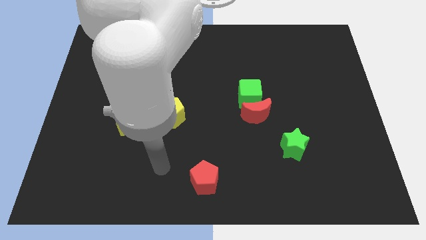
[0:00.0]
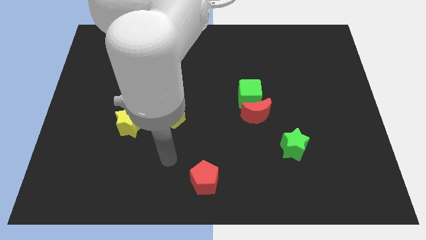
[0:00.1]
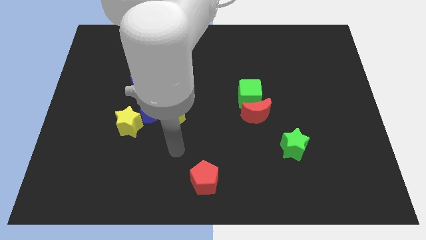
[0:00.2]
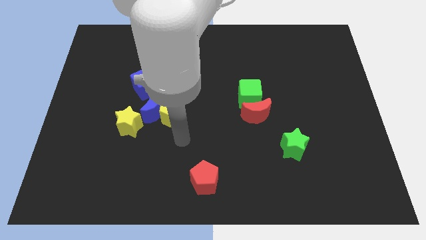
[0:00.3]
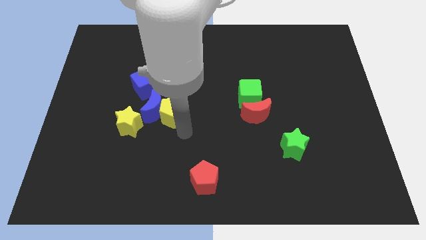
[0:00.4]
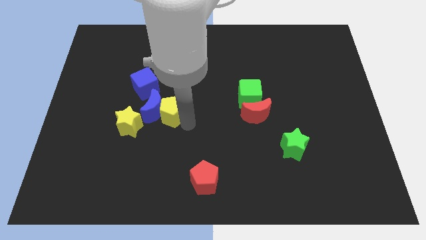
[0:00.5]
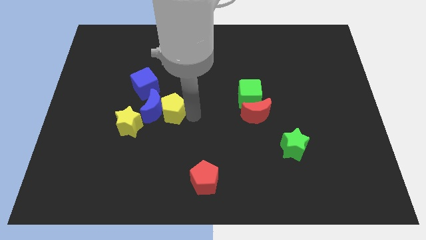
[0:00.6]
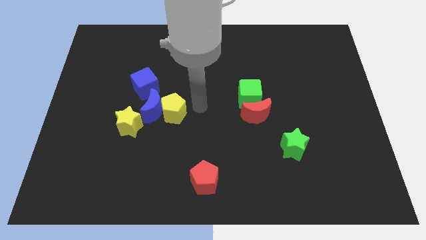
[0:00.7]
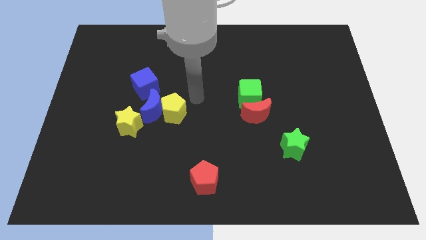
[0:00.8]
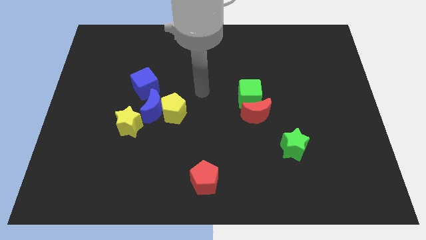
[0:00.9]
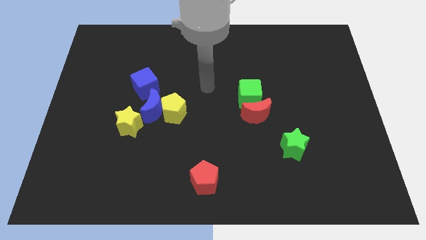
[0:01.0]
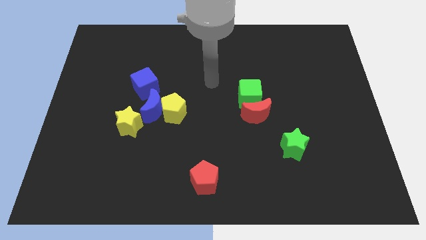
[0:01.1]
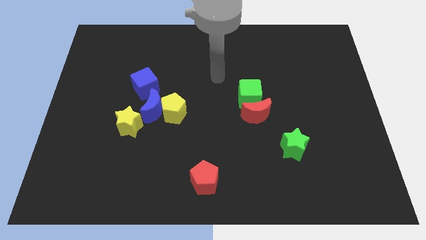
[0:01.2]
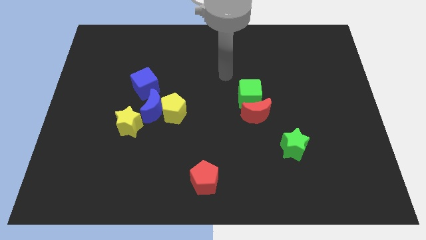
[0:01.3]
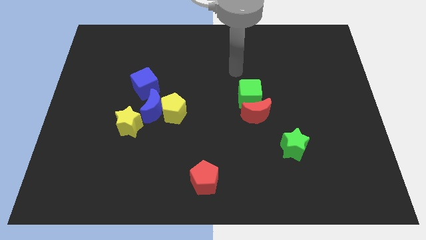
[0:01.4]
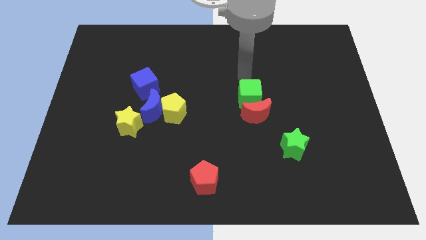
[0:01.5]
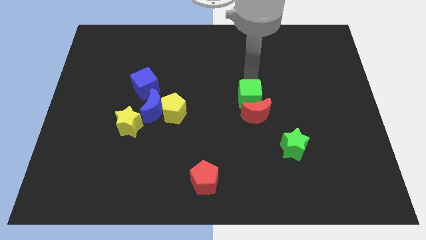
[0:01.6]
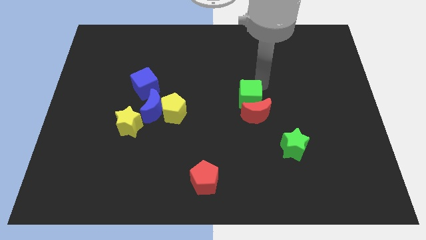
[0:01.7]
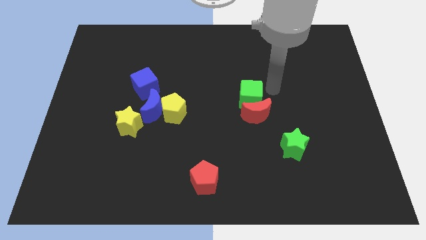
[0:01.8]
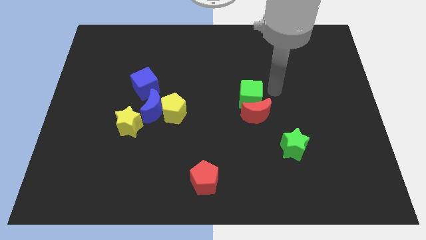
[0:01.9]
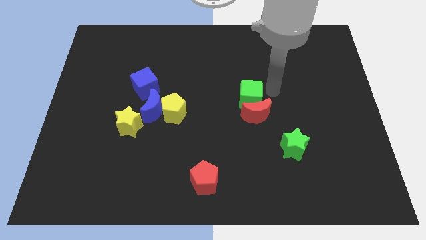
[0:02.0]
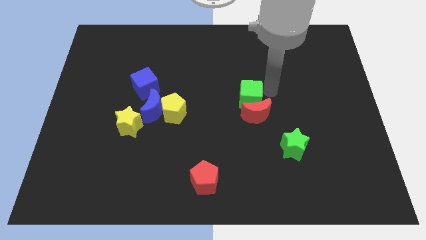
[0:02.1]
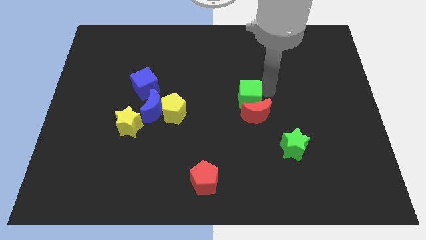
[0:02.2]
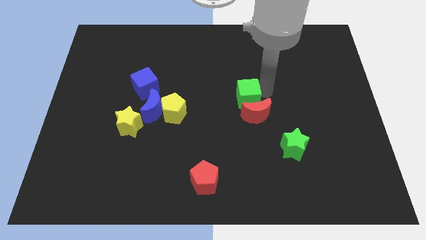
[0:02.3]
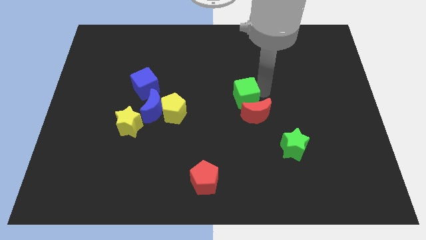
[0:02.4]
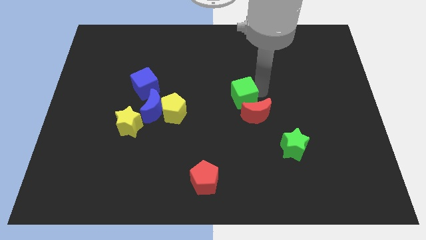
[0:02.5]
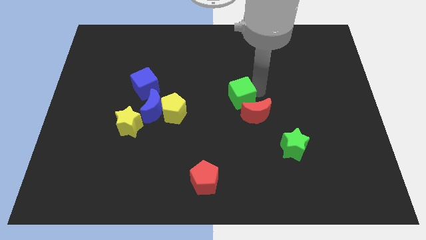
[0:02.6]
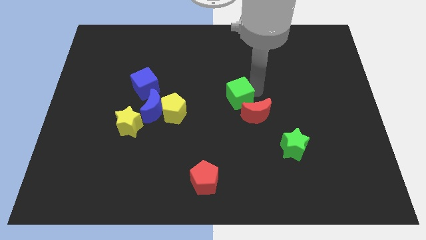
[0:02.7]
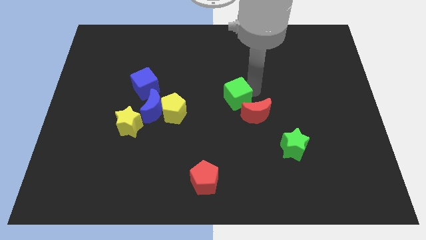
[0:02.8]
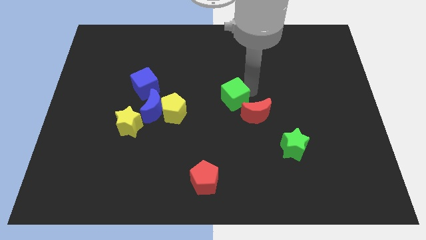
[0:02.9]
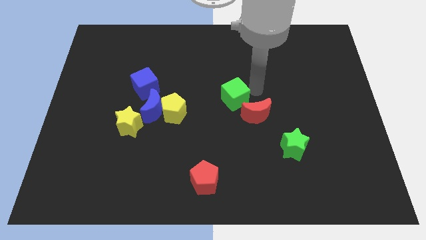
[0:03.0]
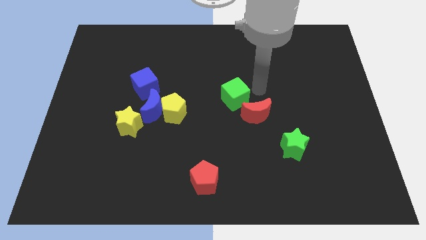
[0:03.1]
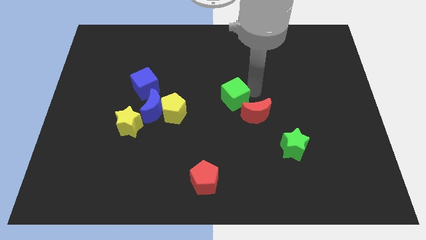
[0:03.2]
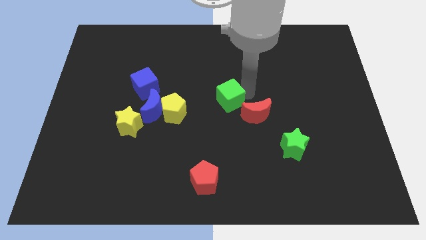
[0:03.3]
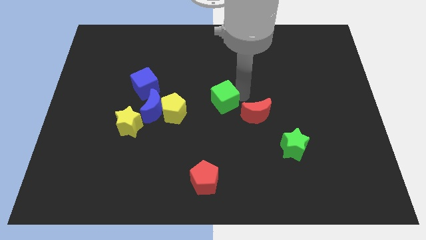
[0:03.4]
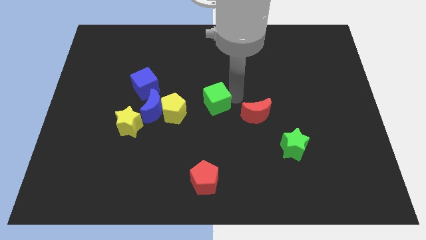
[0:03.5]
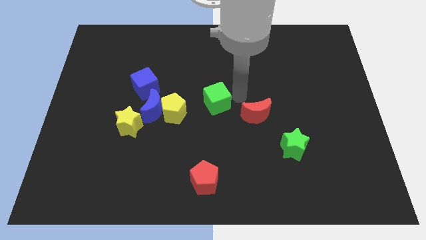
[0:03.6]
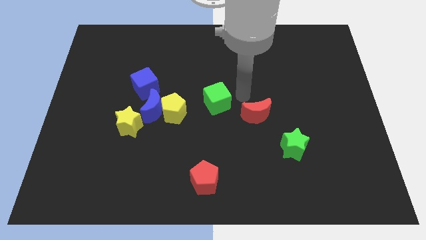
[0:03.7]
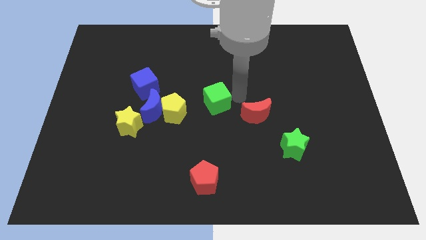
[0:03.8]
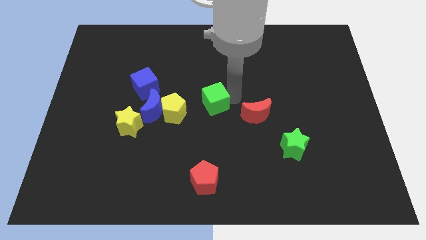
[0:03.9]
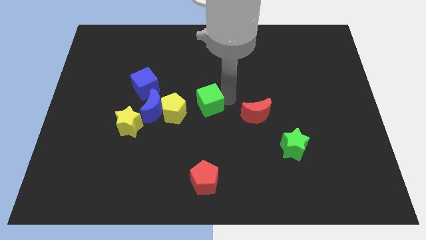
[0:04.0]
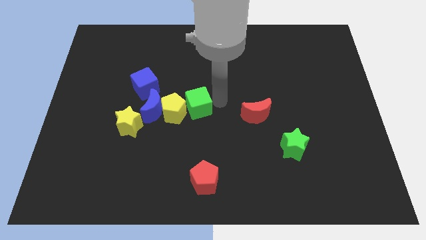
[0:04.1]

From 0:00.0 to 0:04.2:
push the green cube next to the yellow pentagon

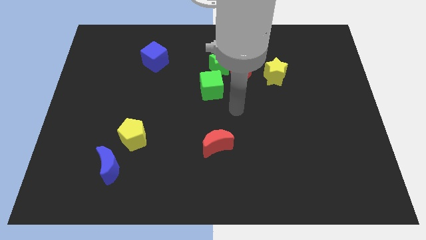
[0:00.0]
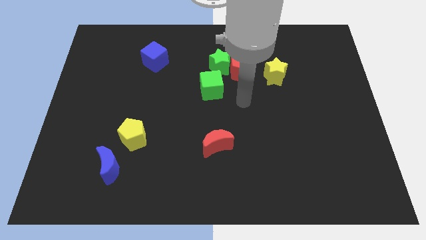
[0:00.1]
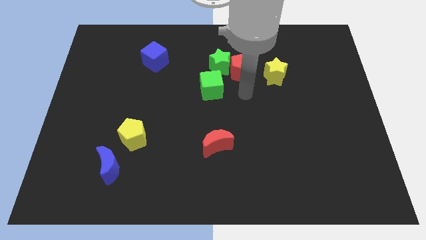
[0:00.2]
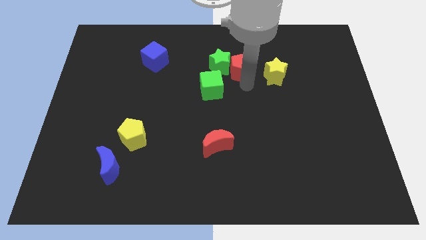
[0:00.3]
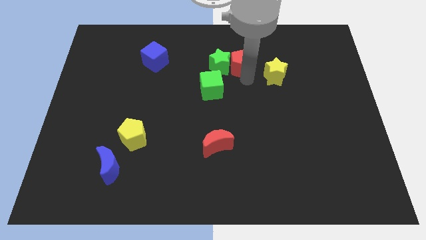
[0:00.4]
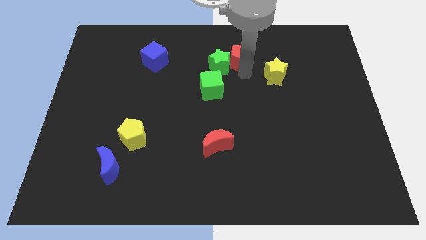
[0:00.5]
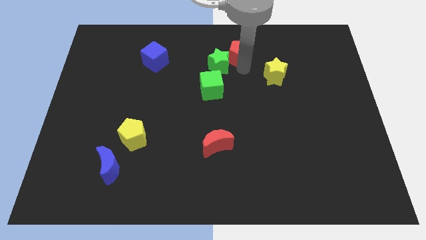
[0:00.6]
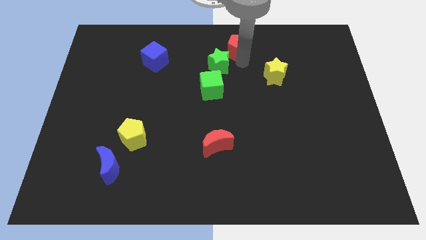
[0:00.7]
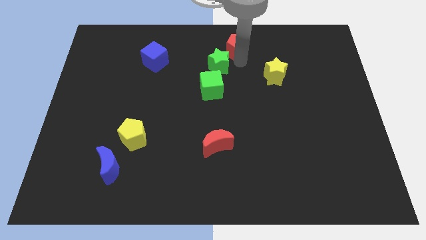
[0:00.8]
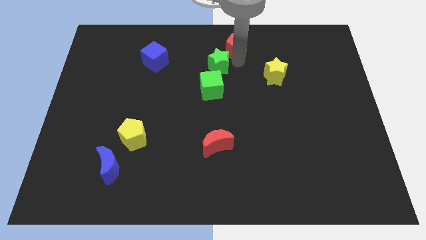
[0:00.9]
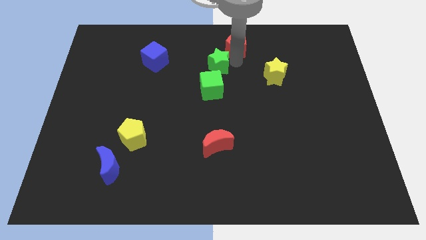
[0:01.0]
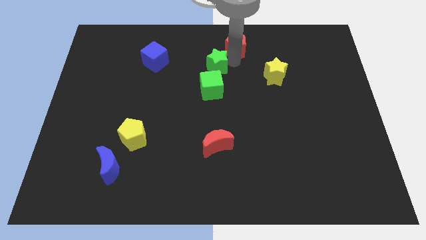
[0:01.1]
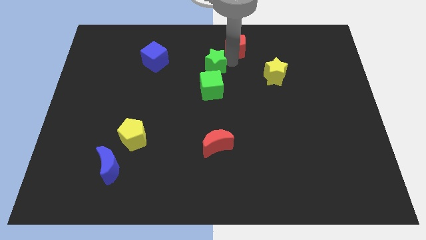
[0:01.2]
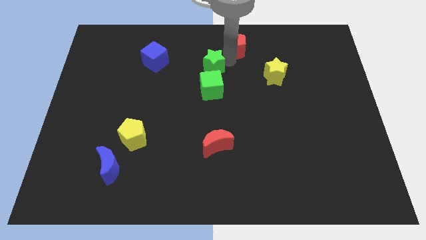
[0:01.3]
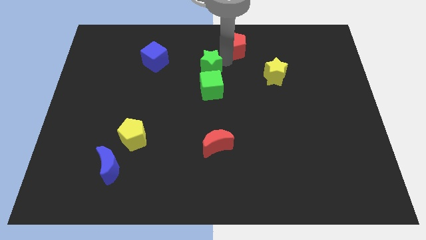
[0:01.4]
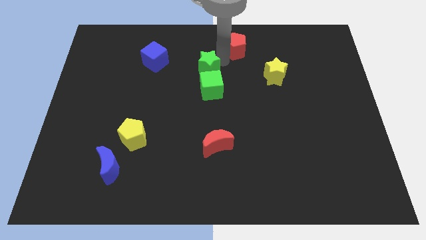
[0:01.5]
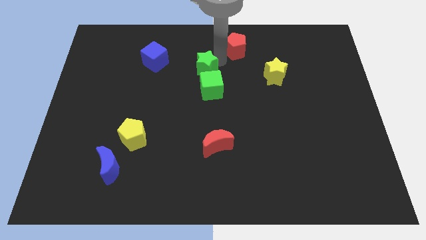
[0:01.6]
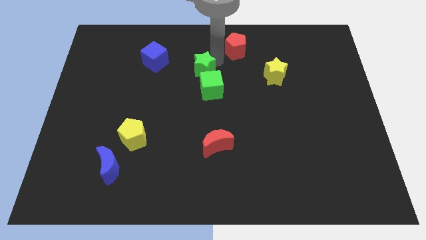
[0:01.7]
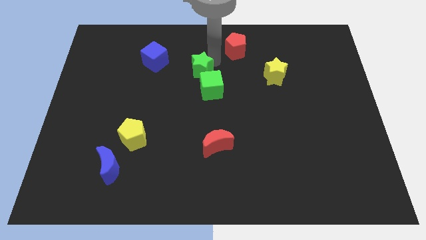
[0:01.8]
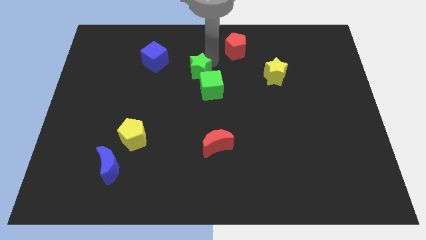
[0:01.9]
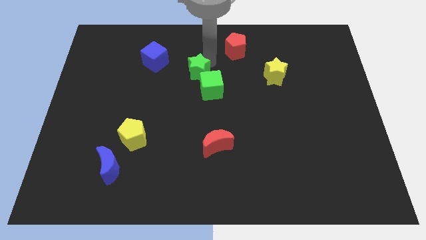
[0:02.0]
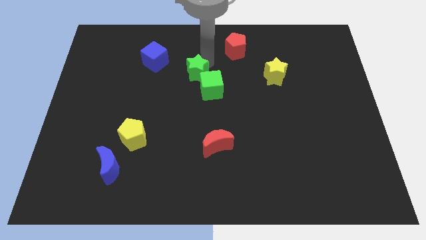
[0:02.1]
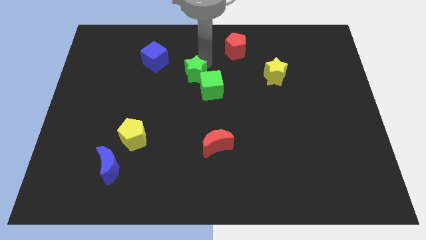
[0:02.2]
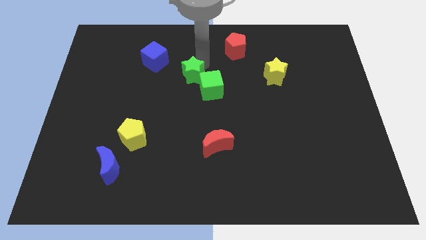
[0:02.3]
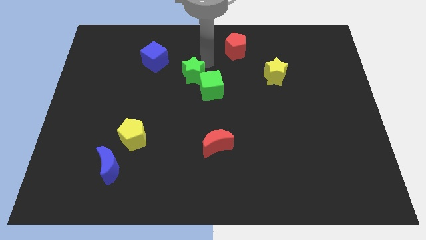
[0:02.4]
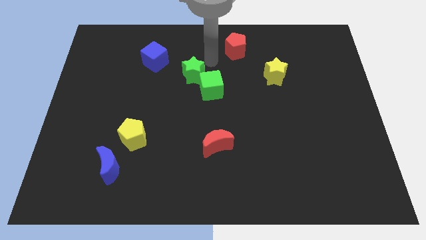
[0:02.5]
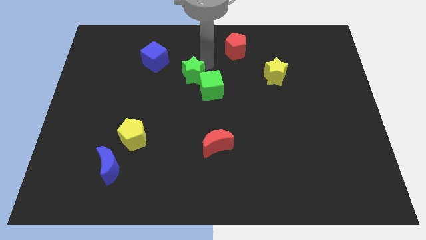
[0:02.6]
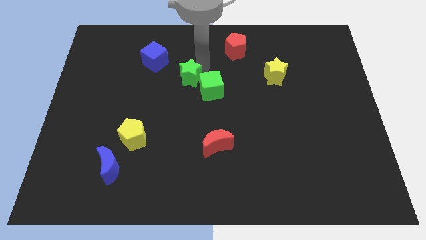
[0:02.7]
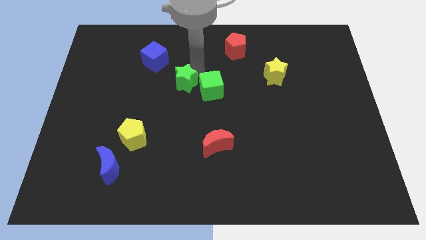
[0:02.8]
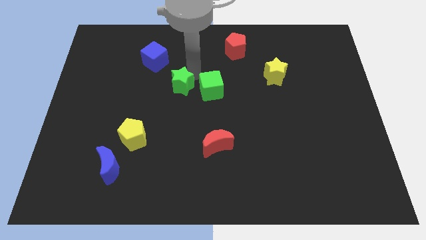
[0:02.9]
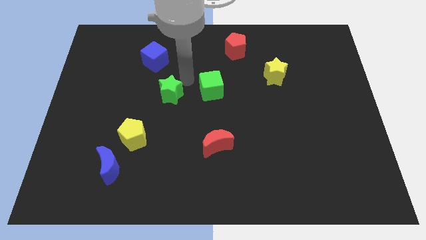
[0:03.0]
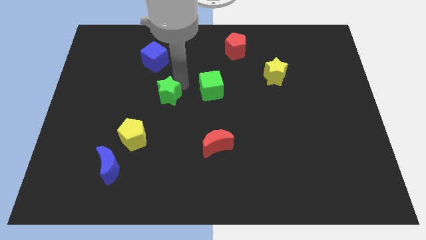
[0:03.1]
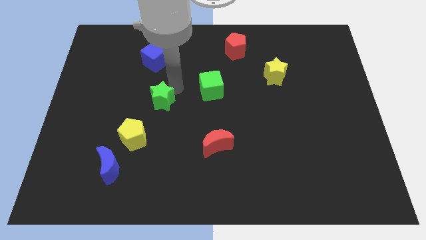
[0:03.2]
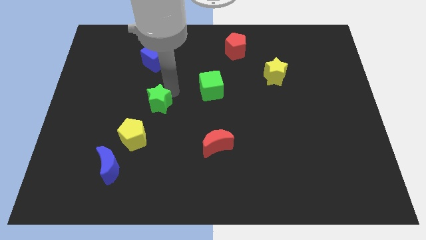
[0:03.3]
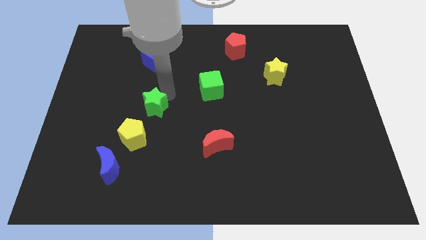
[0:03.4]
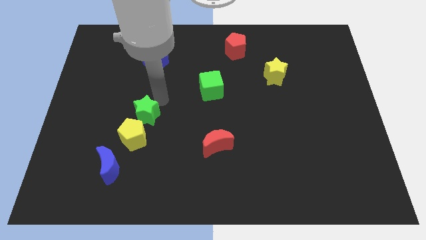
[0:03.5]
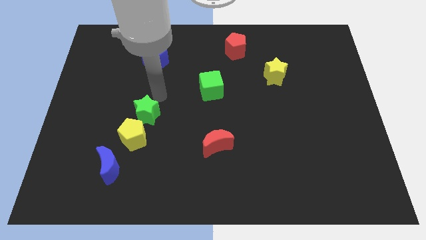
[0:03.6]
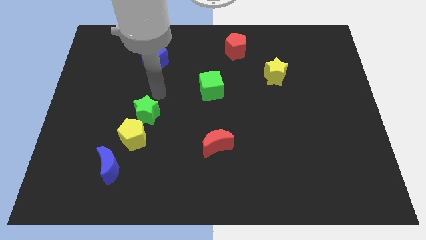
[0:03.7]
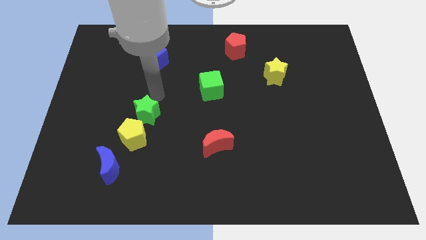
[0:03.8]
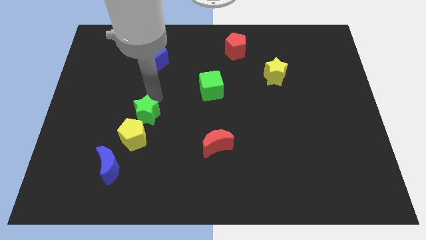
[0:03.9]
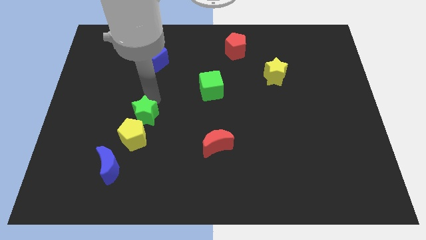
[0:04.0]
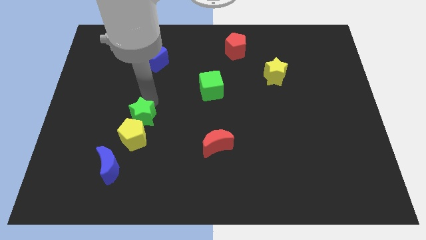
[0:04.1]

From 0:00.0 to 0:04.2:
move the green star next to the yellow pentagon
